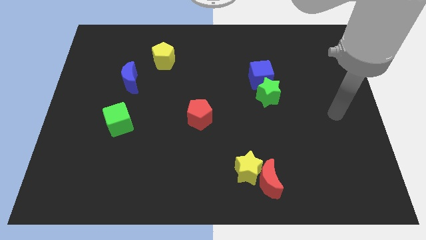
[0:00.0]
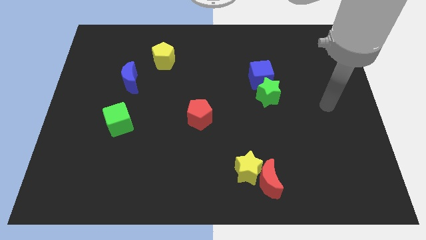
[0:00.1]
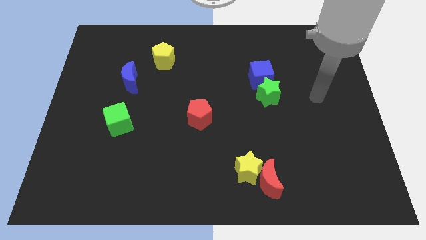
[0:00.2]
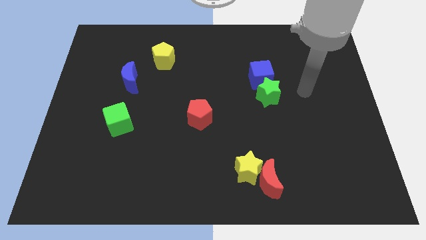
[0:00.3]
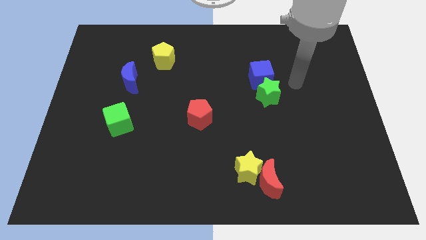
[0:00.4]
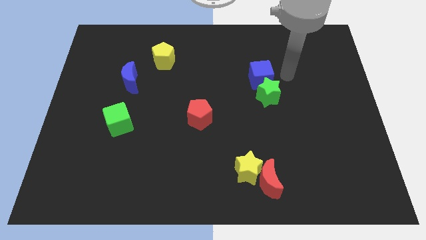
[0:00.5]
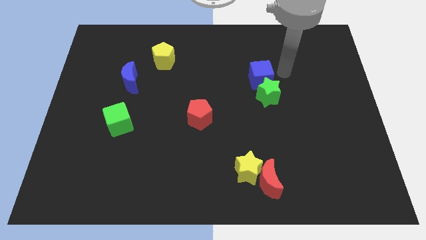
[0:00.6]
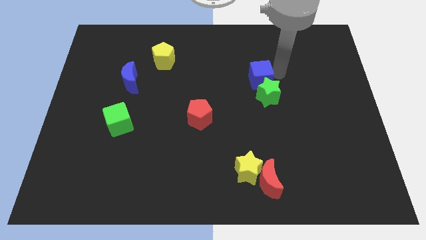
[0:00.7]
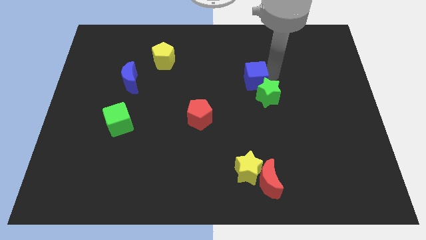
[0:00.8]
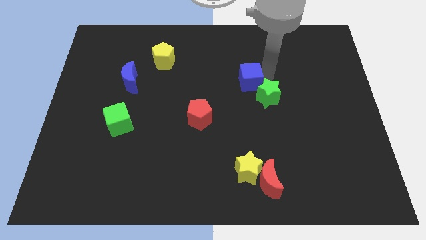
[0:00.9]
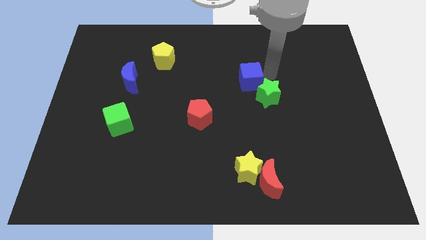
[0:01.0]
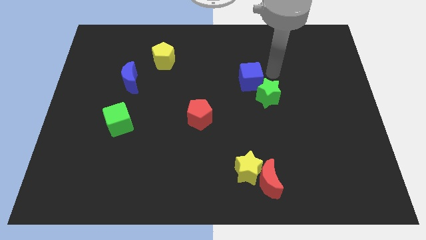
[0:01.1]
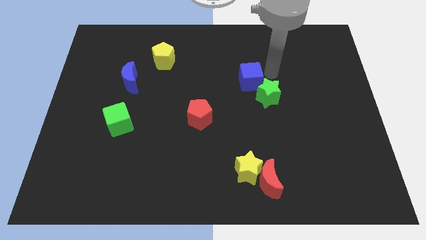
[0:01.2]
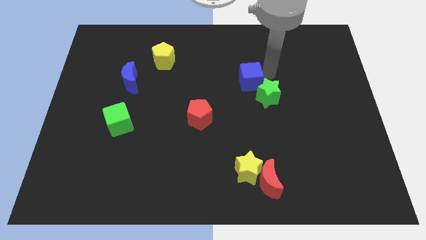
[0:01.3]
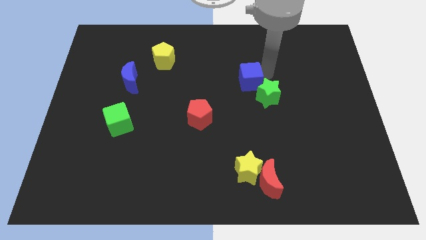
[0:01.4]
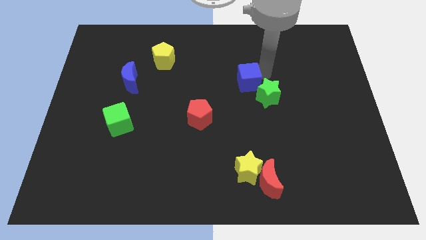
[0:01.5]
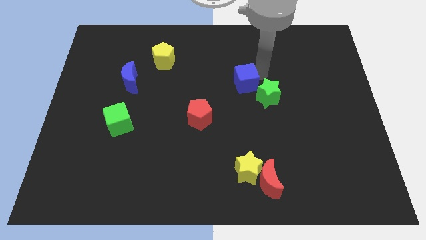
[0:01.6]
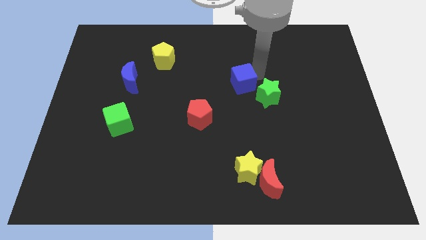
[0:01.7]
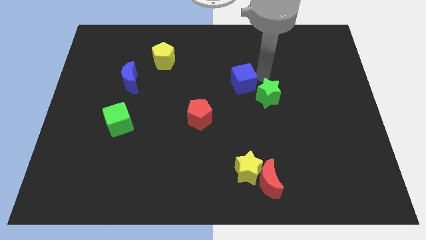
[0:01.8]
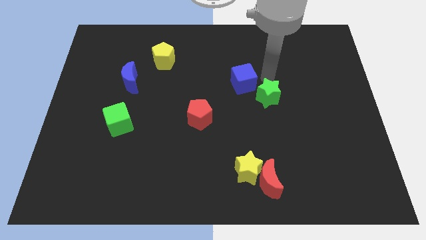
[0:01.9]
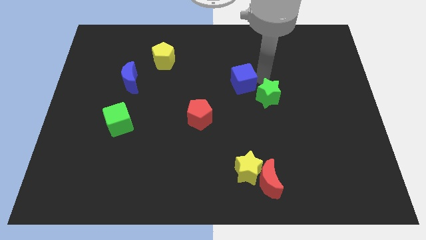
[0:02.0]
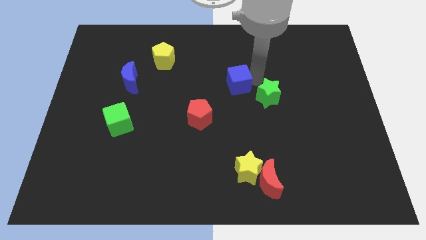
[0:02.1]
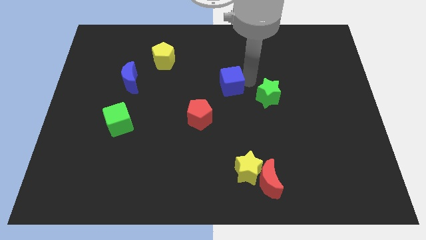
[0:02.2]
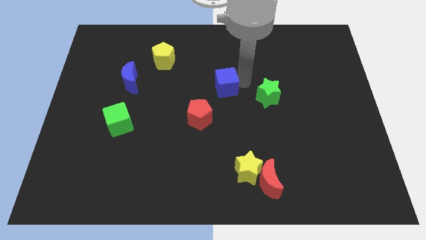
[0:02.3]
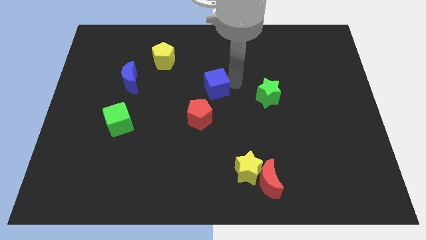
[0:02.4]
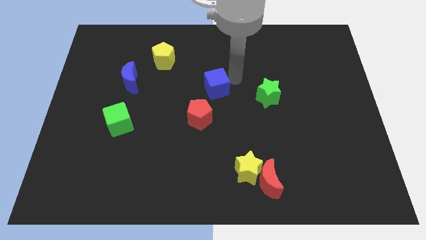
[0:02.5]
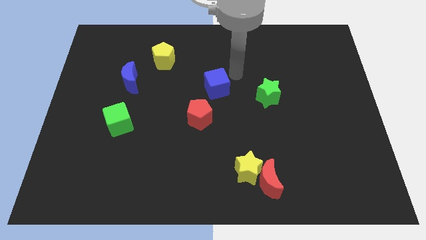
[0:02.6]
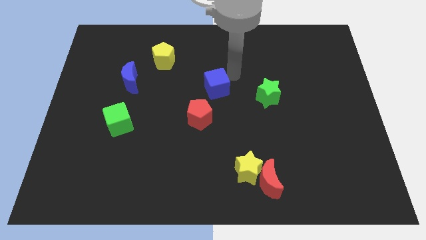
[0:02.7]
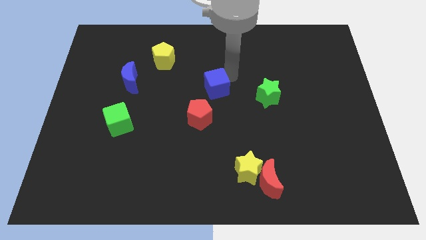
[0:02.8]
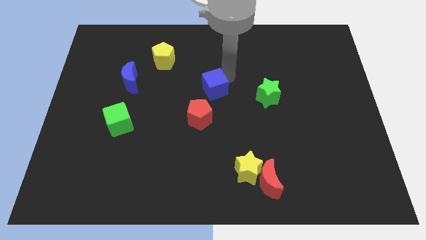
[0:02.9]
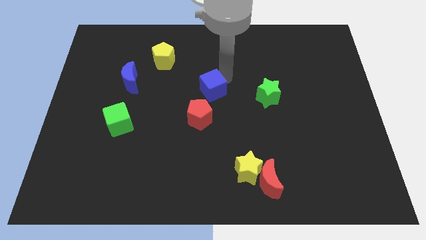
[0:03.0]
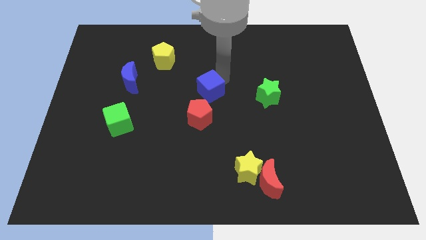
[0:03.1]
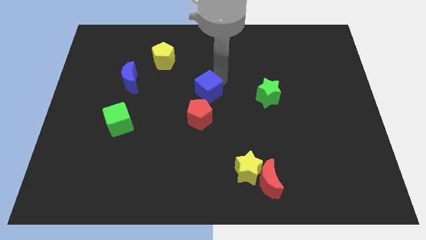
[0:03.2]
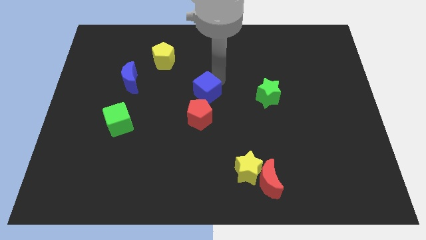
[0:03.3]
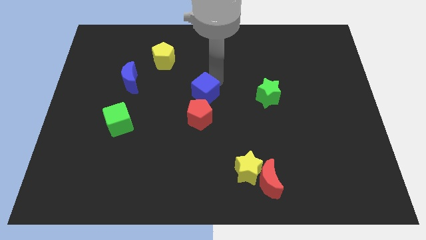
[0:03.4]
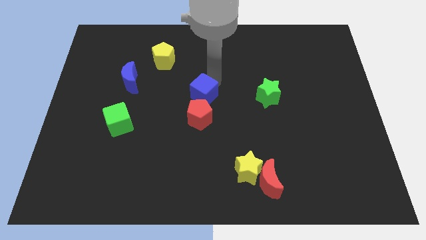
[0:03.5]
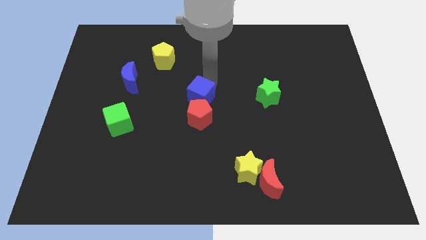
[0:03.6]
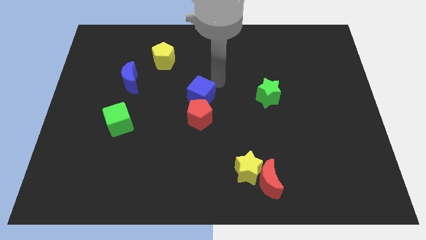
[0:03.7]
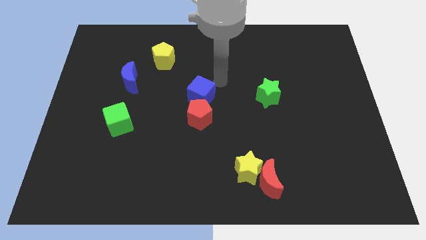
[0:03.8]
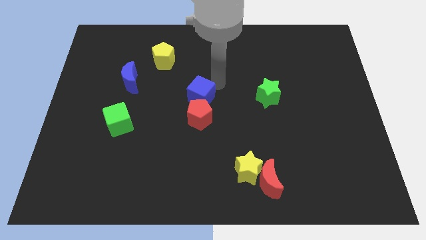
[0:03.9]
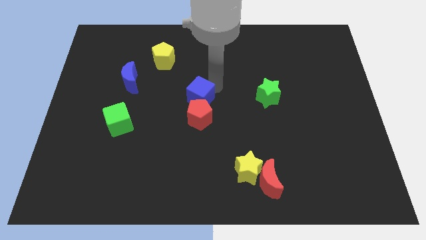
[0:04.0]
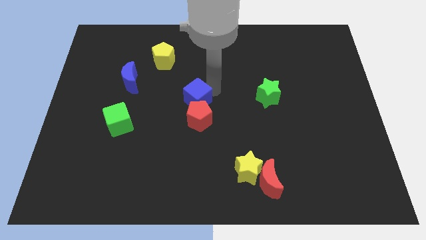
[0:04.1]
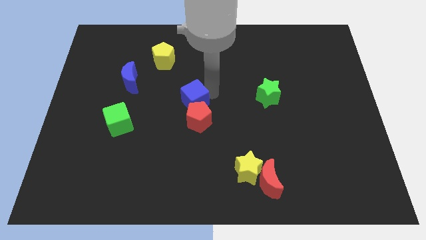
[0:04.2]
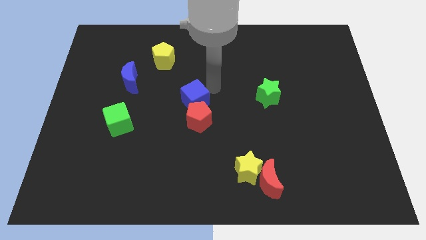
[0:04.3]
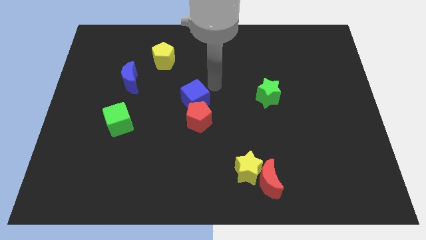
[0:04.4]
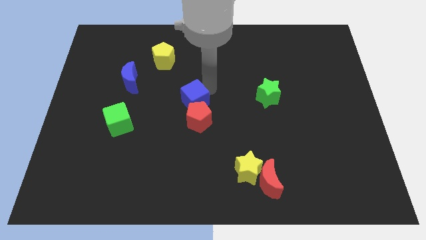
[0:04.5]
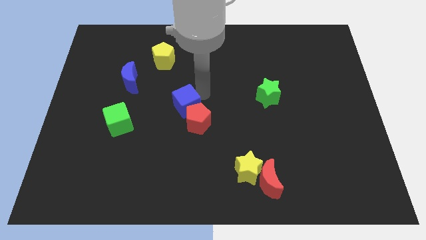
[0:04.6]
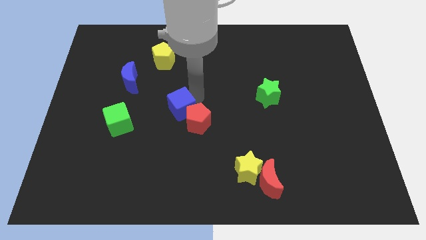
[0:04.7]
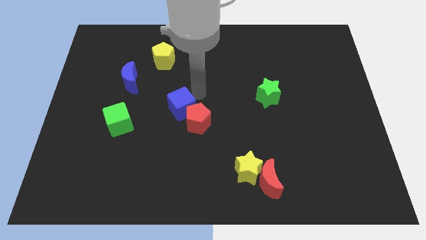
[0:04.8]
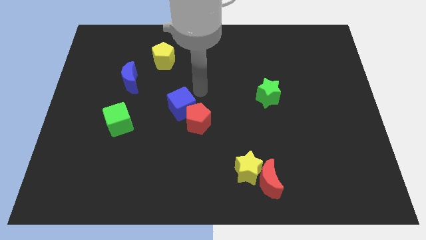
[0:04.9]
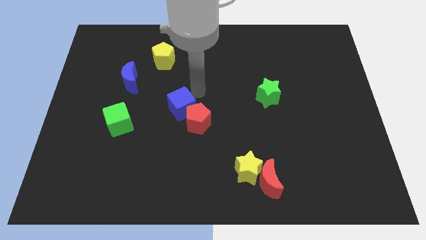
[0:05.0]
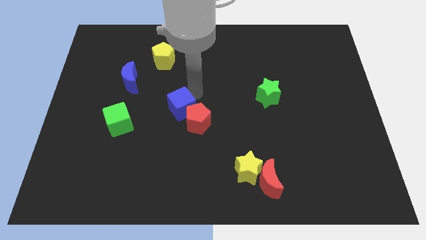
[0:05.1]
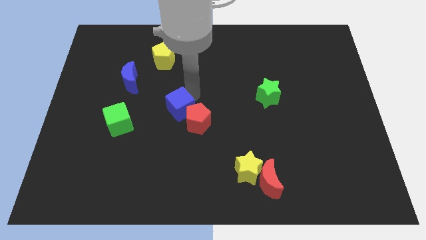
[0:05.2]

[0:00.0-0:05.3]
put the blue cube right of the green cube

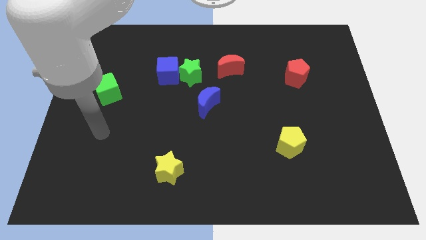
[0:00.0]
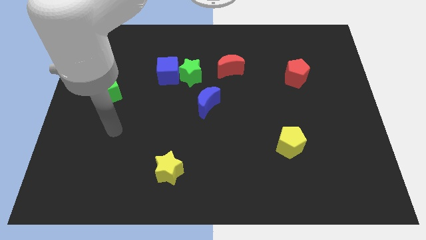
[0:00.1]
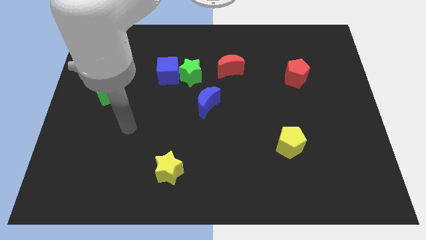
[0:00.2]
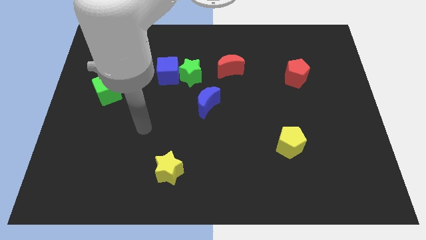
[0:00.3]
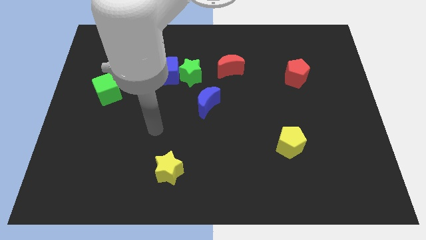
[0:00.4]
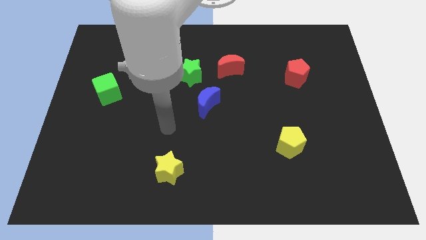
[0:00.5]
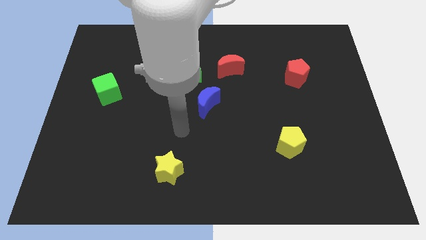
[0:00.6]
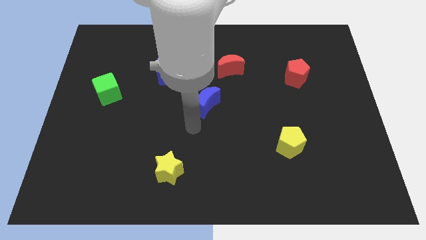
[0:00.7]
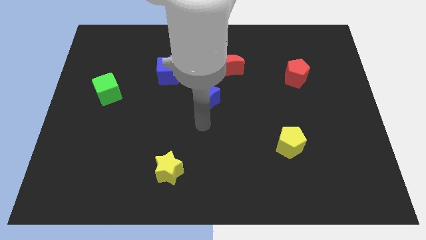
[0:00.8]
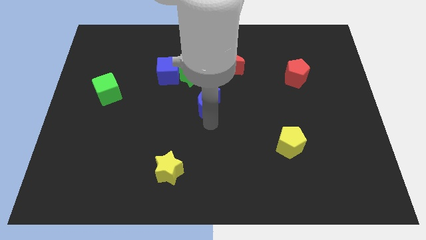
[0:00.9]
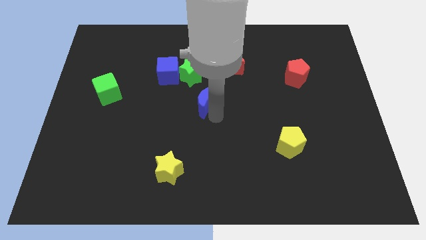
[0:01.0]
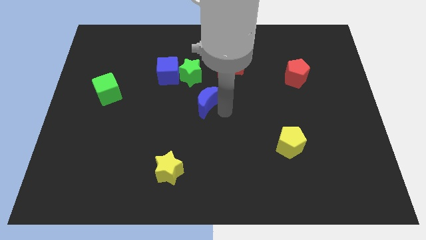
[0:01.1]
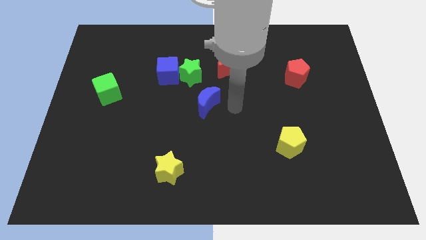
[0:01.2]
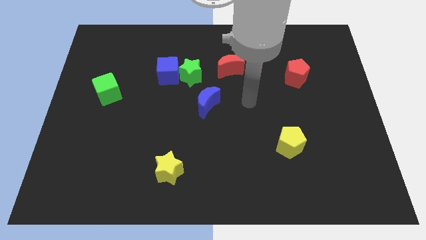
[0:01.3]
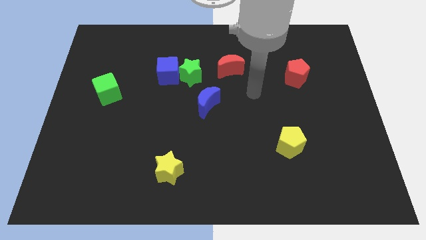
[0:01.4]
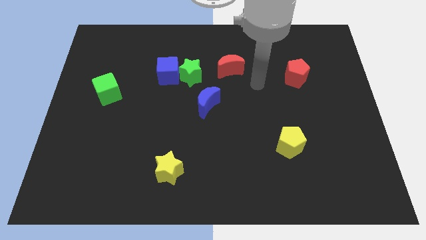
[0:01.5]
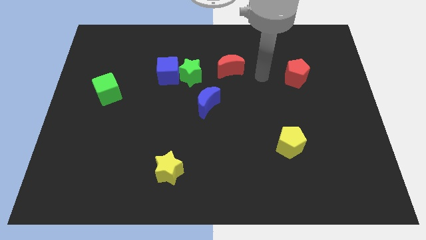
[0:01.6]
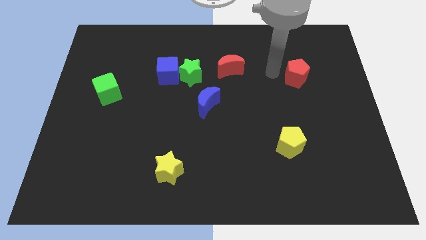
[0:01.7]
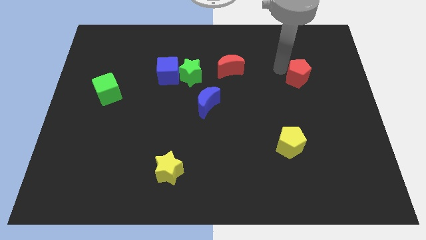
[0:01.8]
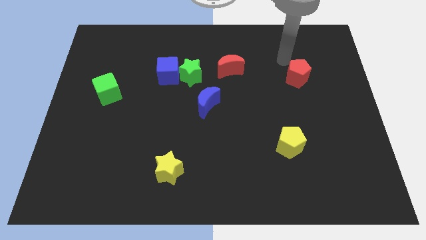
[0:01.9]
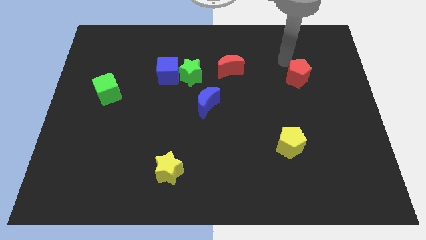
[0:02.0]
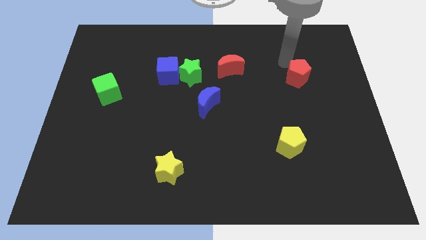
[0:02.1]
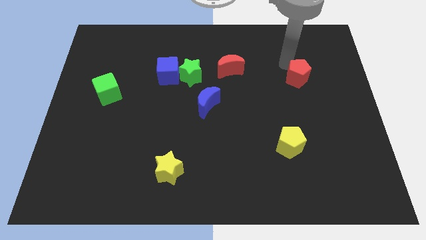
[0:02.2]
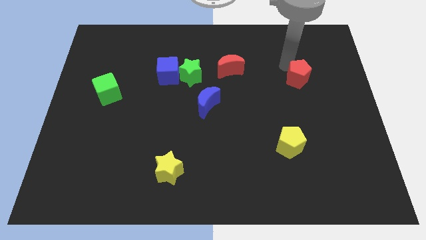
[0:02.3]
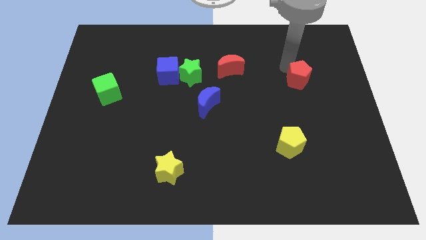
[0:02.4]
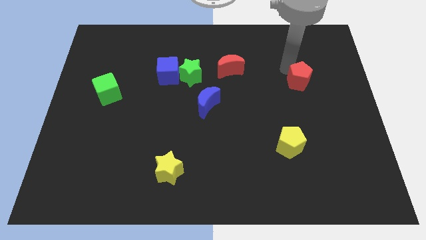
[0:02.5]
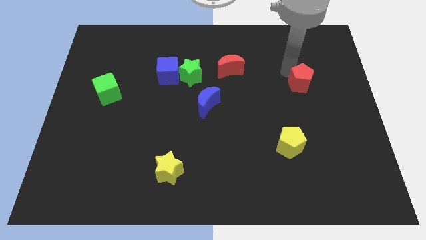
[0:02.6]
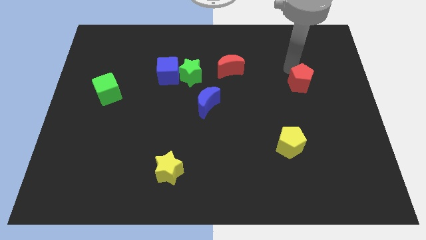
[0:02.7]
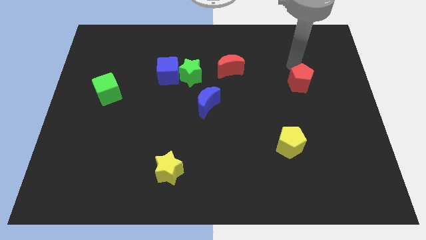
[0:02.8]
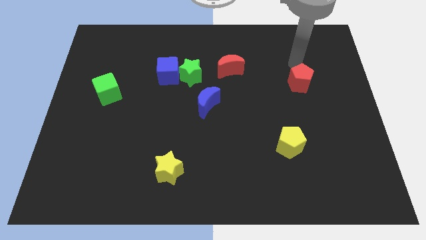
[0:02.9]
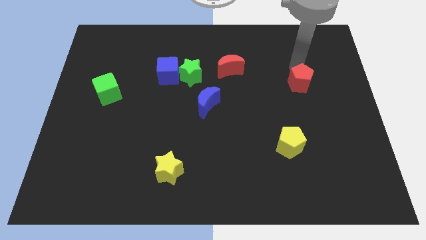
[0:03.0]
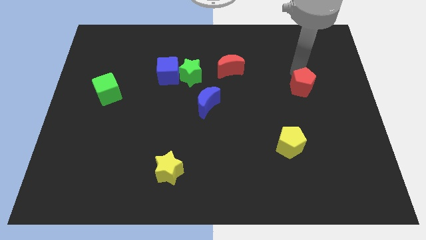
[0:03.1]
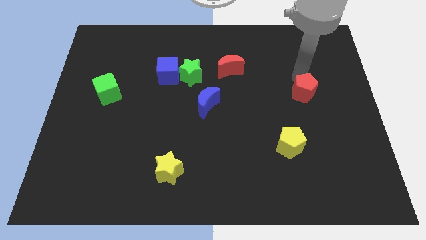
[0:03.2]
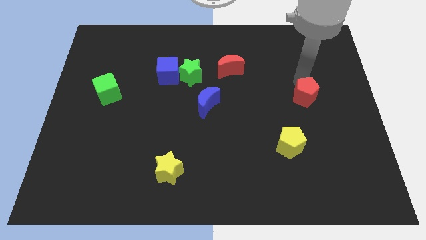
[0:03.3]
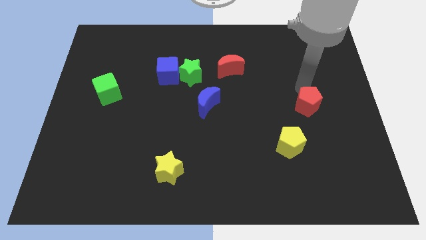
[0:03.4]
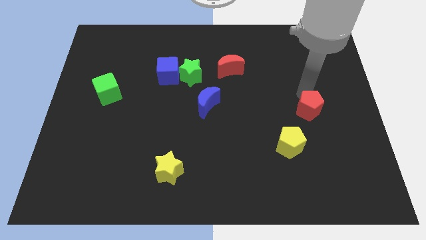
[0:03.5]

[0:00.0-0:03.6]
move the red pentagon to the top right side of the yellow pentagon
